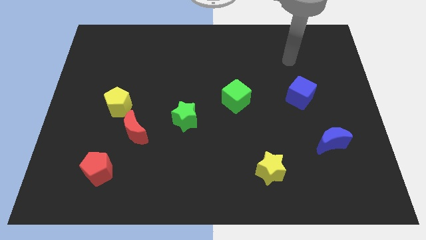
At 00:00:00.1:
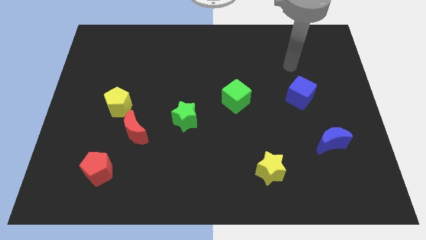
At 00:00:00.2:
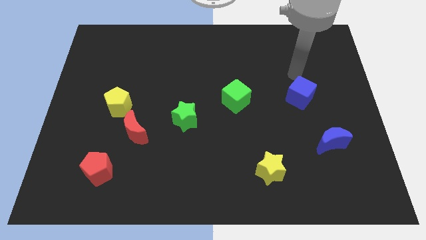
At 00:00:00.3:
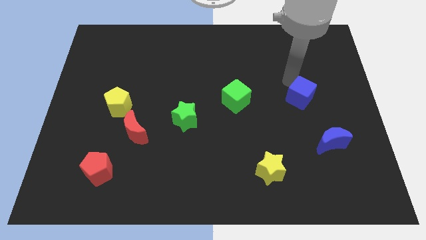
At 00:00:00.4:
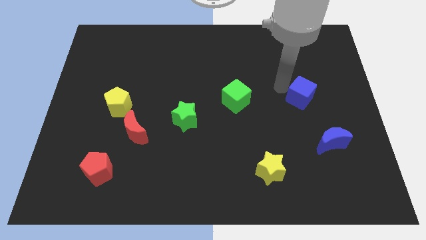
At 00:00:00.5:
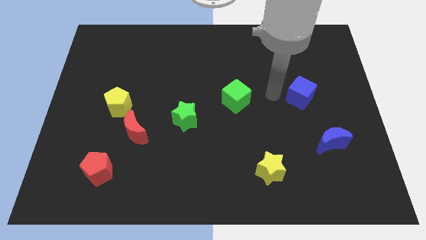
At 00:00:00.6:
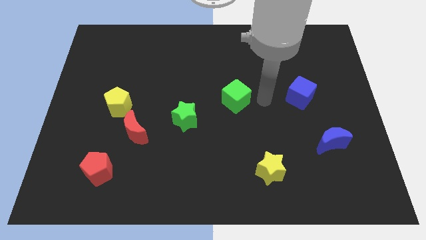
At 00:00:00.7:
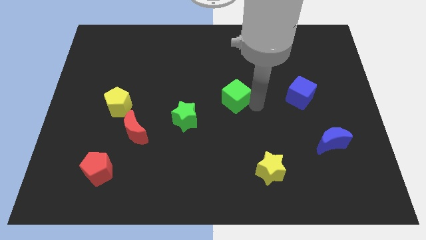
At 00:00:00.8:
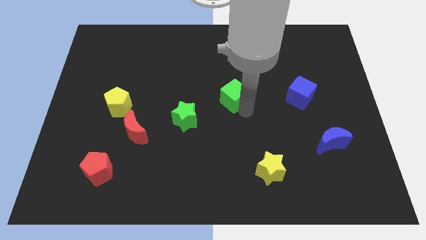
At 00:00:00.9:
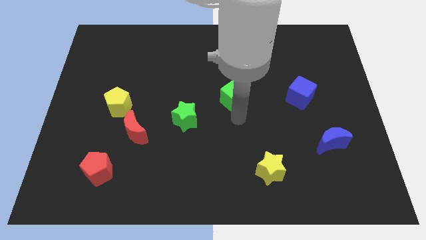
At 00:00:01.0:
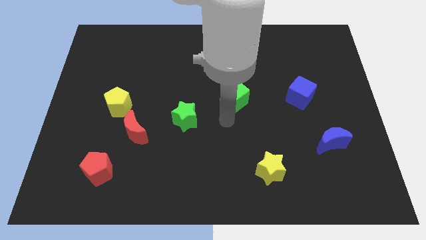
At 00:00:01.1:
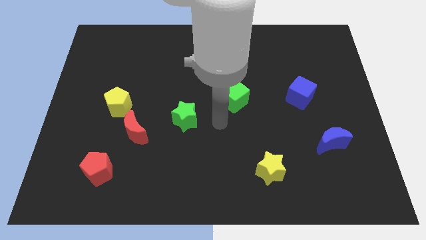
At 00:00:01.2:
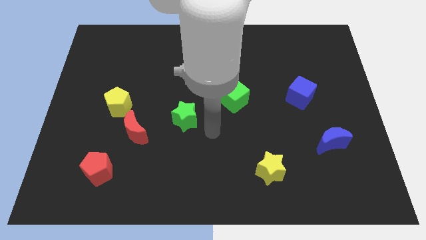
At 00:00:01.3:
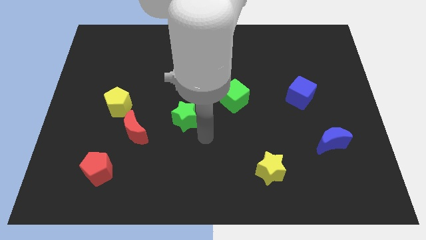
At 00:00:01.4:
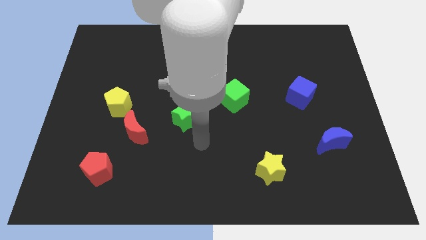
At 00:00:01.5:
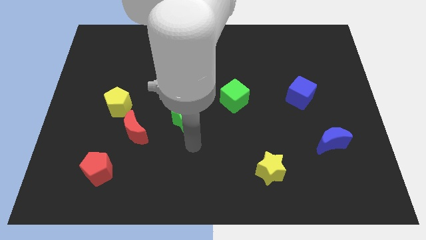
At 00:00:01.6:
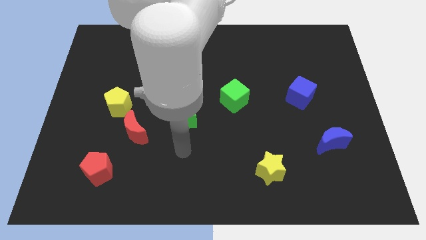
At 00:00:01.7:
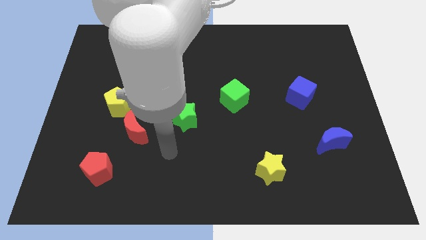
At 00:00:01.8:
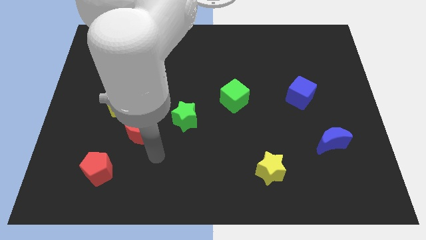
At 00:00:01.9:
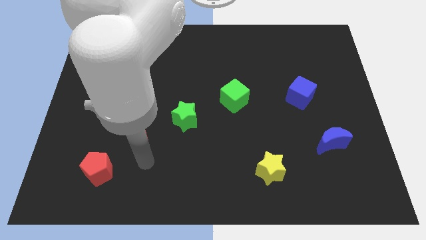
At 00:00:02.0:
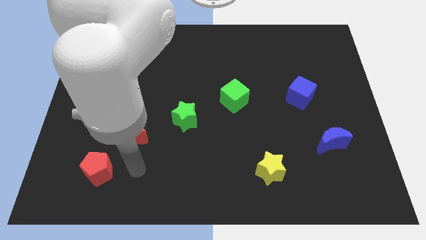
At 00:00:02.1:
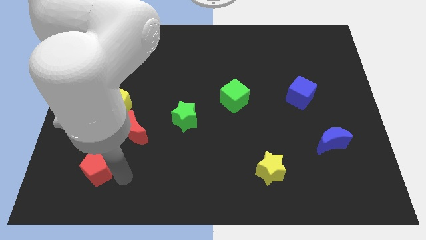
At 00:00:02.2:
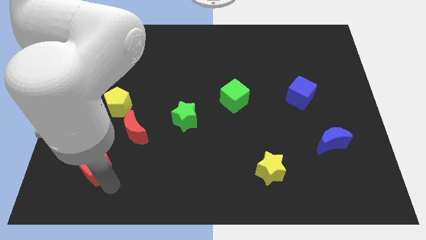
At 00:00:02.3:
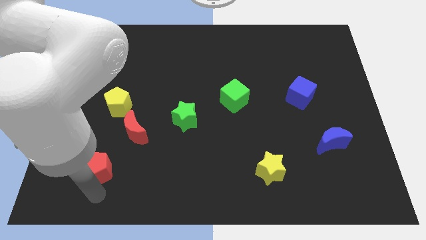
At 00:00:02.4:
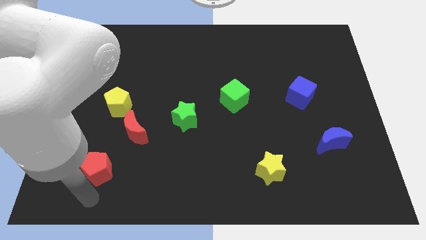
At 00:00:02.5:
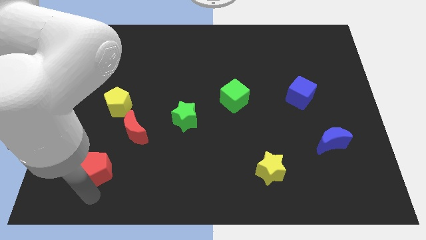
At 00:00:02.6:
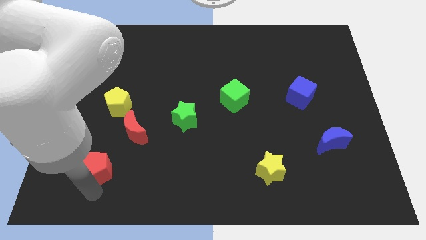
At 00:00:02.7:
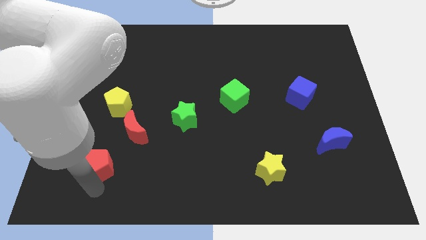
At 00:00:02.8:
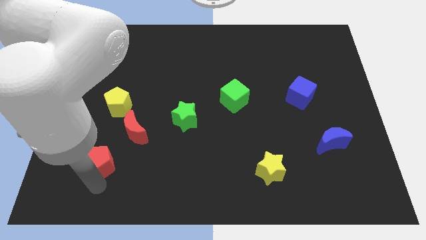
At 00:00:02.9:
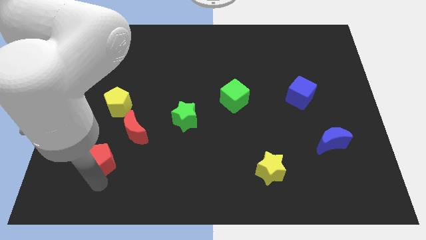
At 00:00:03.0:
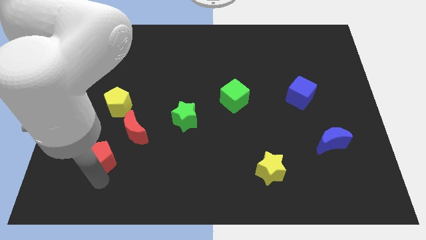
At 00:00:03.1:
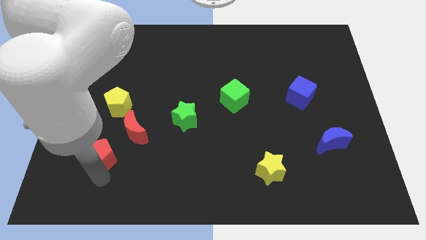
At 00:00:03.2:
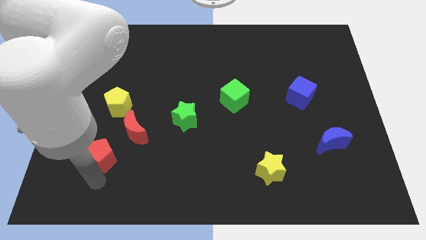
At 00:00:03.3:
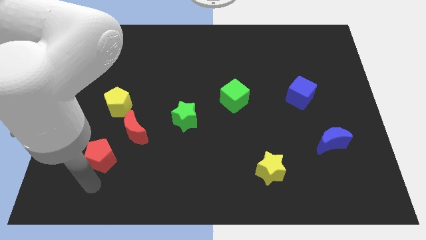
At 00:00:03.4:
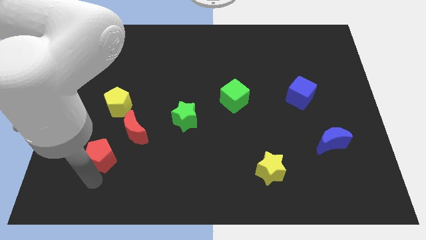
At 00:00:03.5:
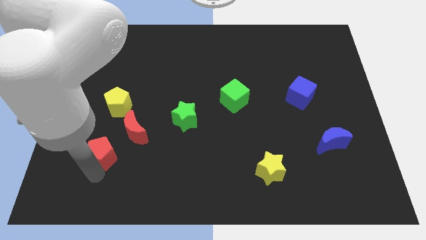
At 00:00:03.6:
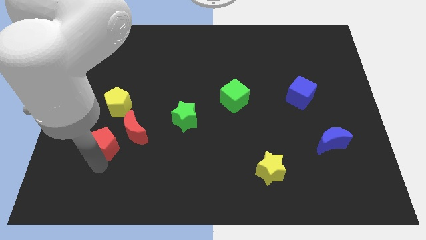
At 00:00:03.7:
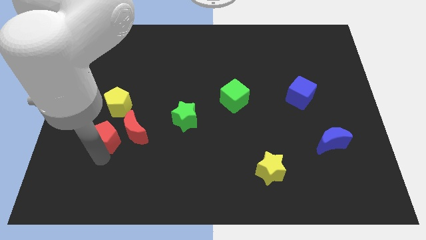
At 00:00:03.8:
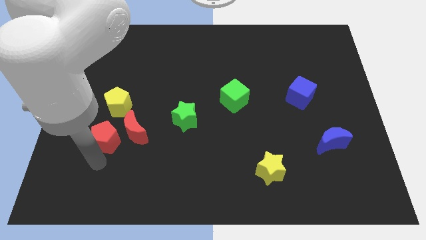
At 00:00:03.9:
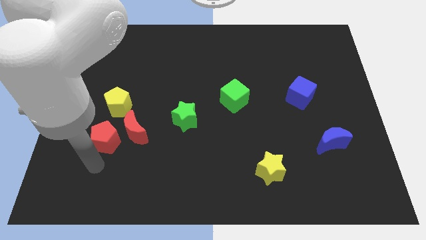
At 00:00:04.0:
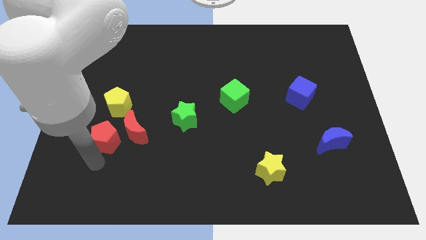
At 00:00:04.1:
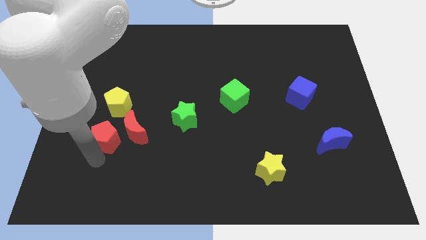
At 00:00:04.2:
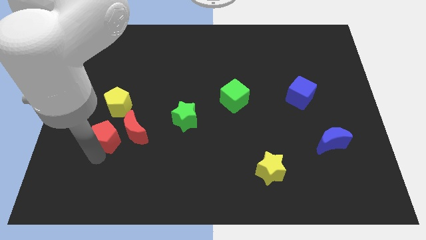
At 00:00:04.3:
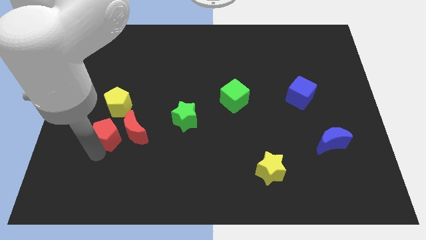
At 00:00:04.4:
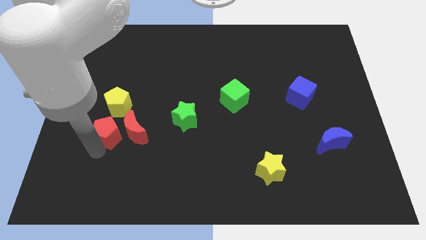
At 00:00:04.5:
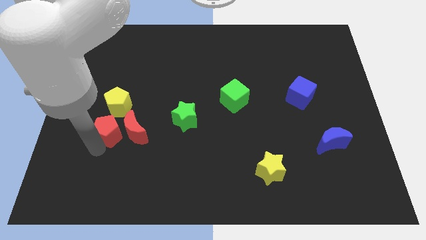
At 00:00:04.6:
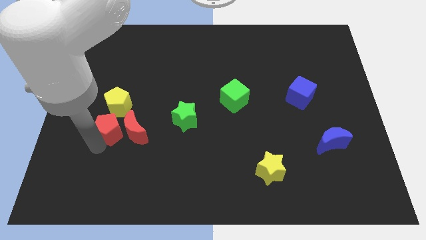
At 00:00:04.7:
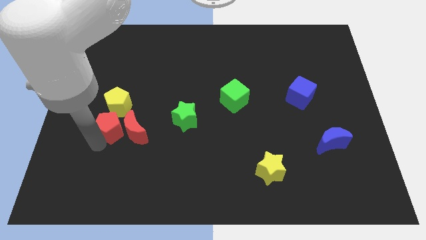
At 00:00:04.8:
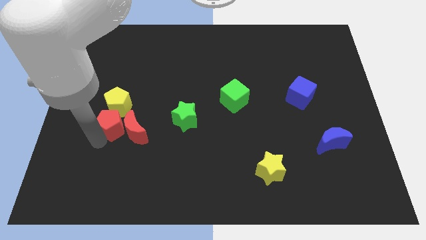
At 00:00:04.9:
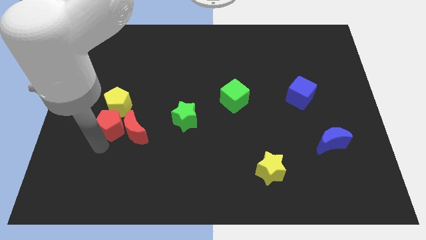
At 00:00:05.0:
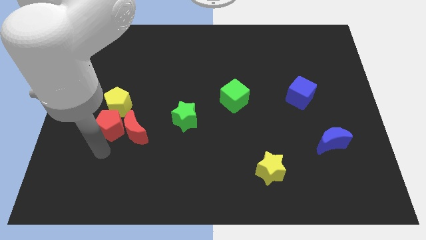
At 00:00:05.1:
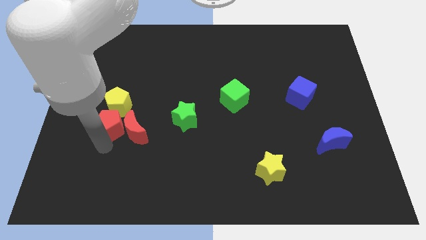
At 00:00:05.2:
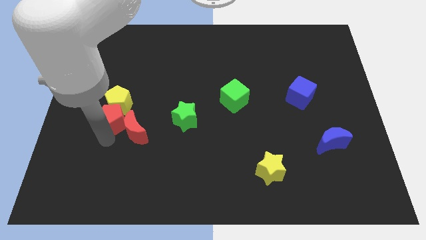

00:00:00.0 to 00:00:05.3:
move the red pentagon towards the yellow pentagon

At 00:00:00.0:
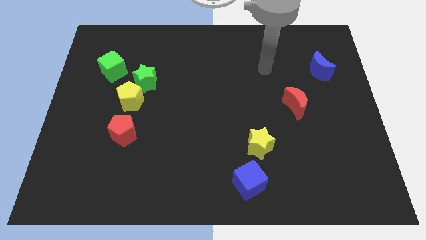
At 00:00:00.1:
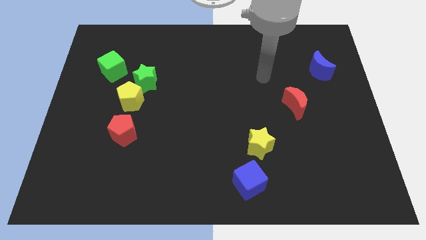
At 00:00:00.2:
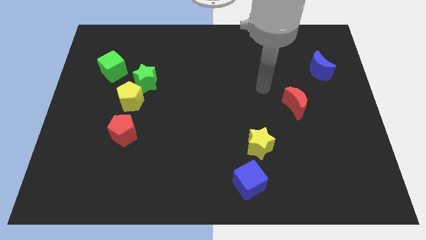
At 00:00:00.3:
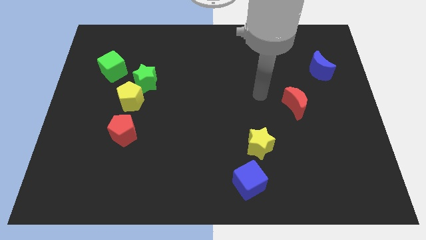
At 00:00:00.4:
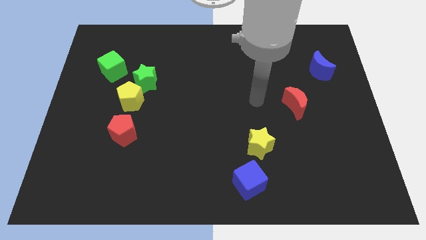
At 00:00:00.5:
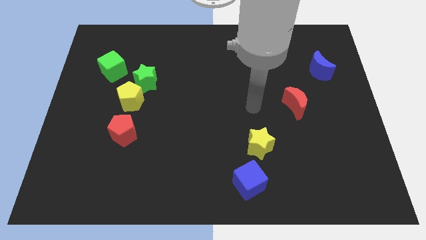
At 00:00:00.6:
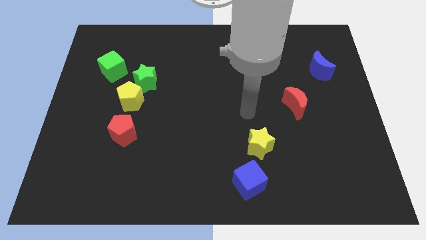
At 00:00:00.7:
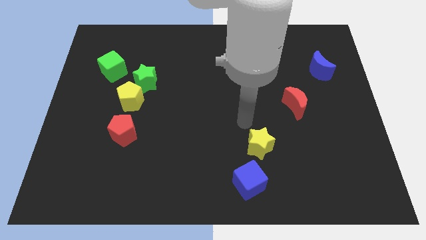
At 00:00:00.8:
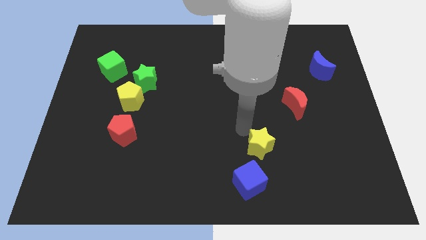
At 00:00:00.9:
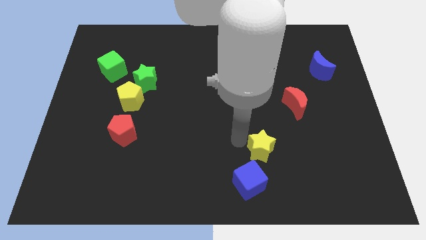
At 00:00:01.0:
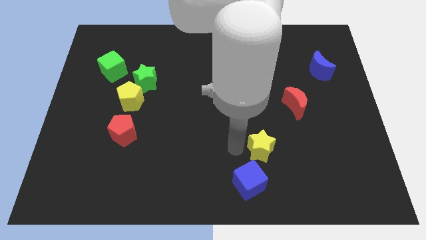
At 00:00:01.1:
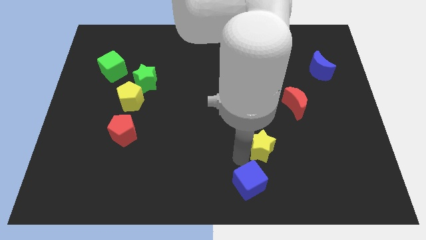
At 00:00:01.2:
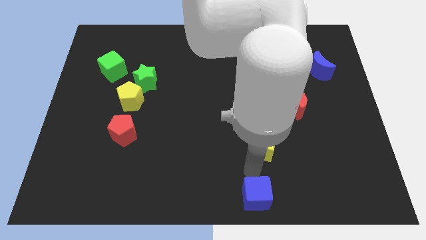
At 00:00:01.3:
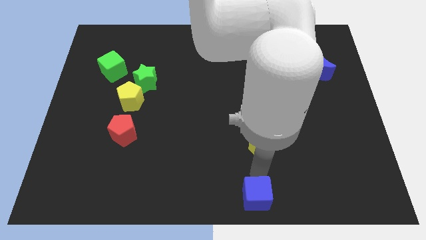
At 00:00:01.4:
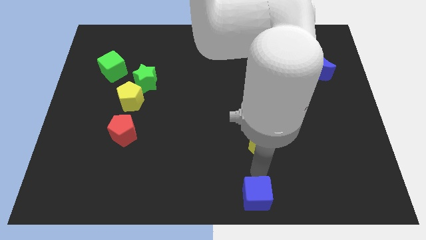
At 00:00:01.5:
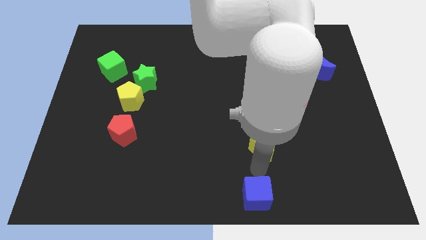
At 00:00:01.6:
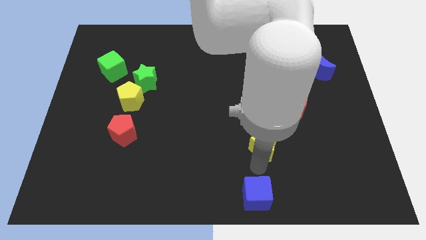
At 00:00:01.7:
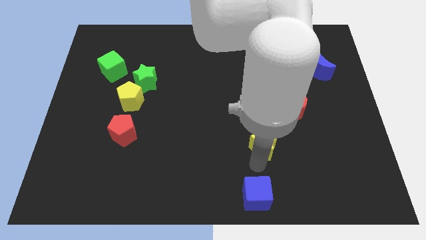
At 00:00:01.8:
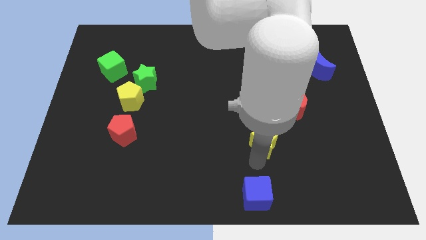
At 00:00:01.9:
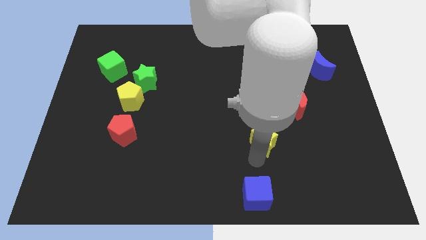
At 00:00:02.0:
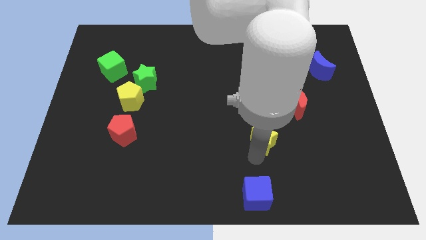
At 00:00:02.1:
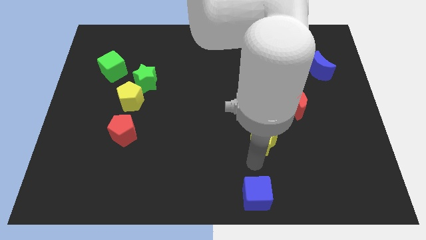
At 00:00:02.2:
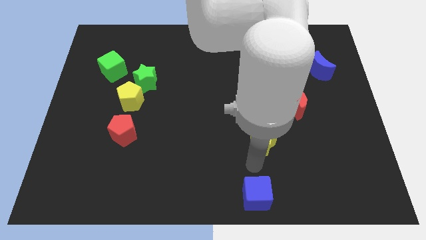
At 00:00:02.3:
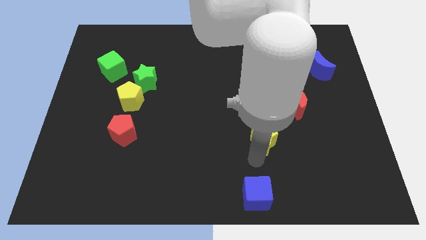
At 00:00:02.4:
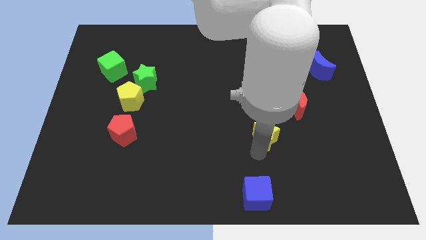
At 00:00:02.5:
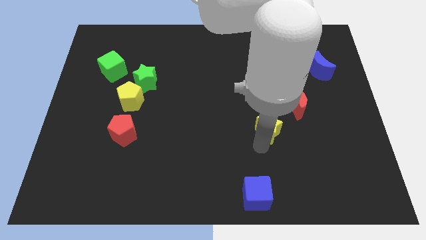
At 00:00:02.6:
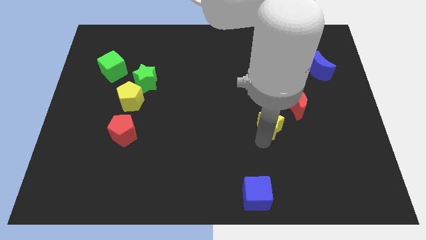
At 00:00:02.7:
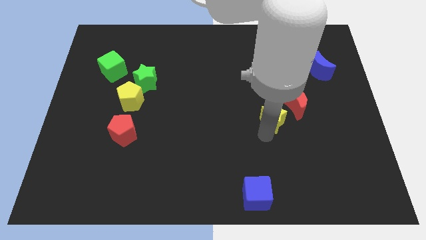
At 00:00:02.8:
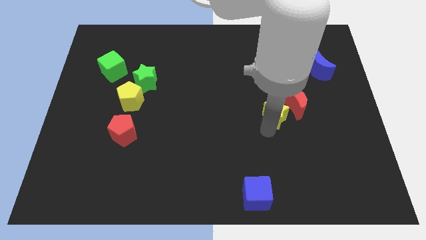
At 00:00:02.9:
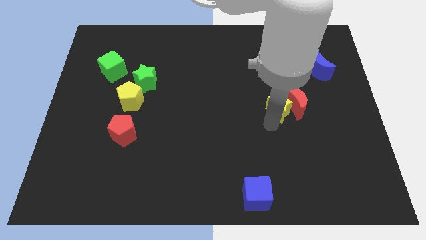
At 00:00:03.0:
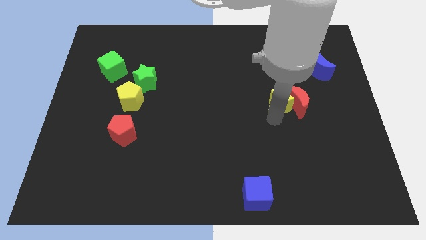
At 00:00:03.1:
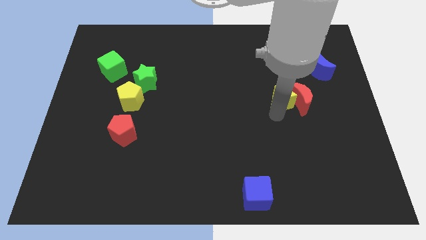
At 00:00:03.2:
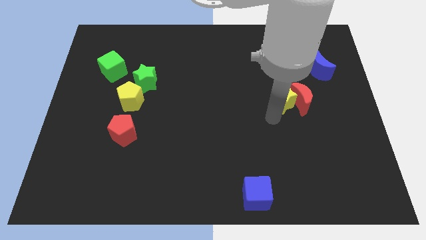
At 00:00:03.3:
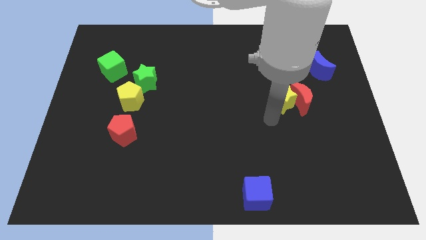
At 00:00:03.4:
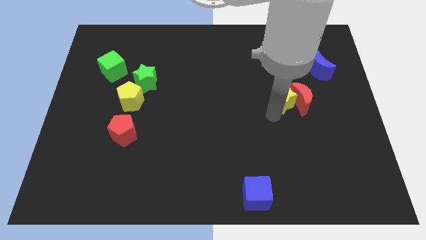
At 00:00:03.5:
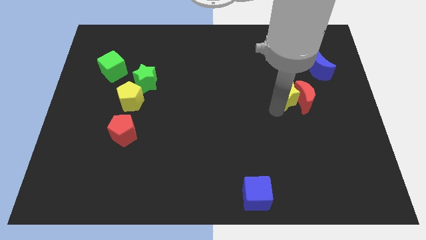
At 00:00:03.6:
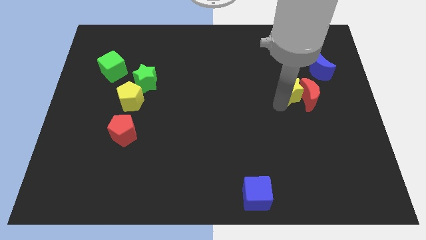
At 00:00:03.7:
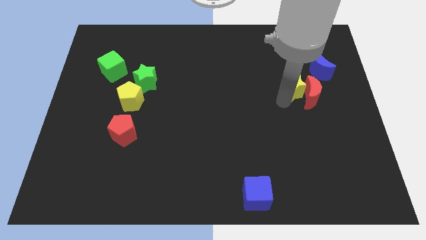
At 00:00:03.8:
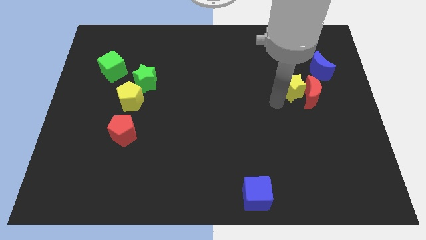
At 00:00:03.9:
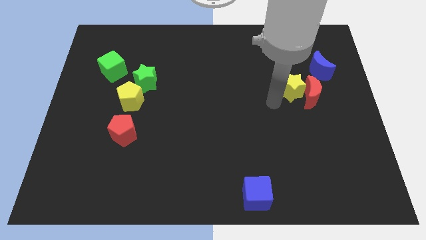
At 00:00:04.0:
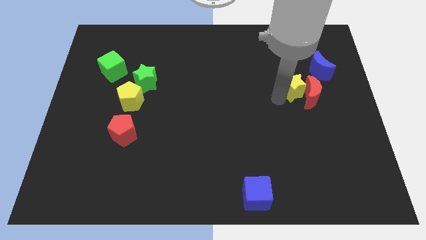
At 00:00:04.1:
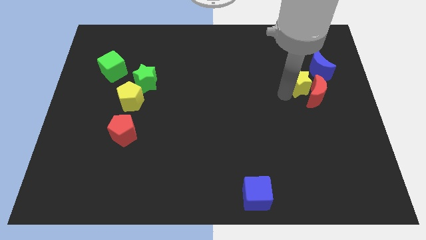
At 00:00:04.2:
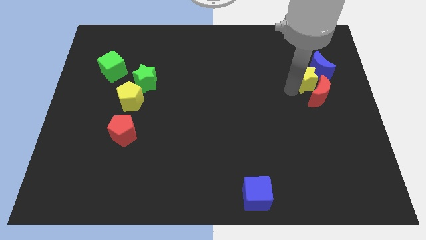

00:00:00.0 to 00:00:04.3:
push the yellow star towards the blue moon
